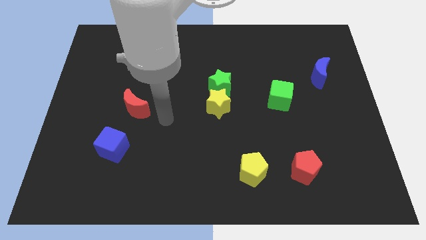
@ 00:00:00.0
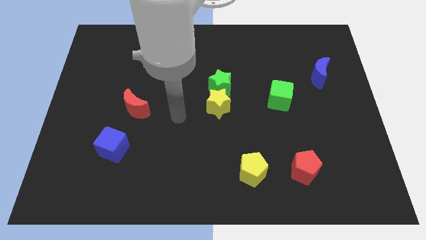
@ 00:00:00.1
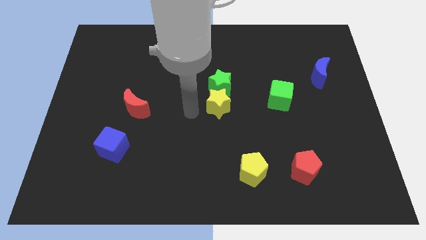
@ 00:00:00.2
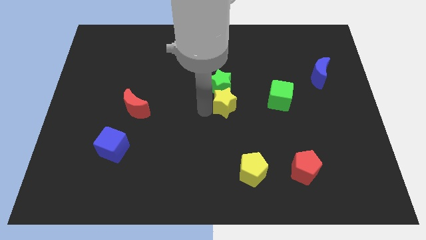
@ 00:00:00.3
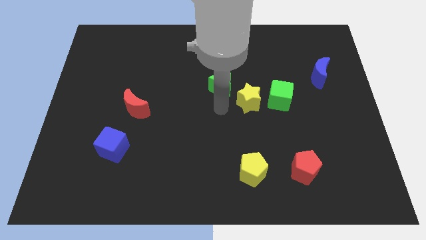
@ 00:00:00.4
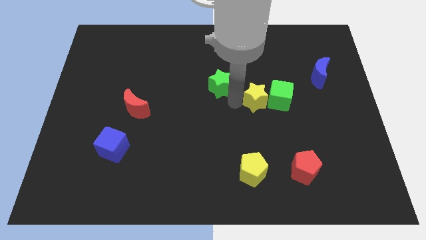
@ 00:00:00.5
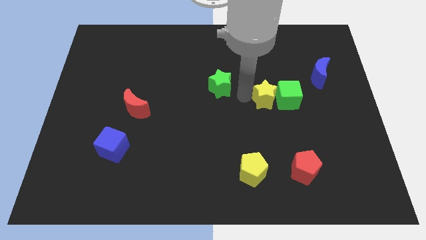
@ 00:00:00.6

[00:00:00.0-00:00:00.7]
separate the green star from the yellow star

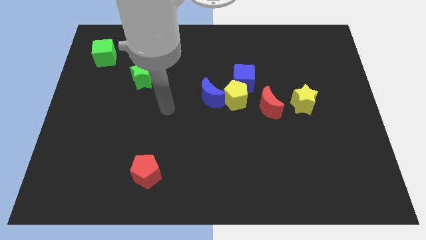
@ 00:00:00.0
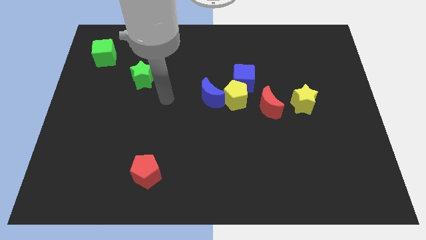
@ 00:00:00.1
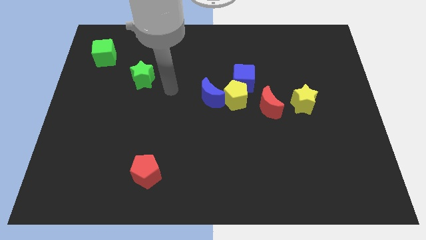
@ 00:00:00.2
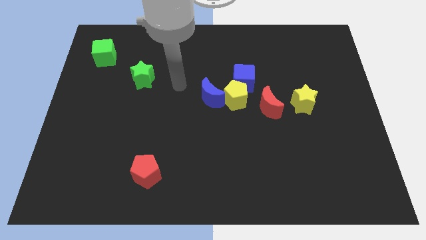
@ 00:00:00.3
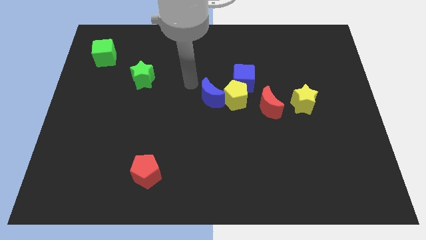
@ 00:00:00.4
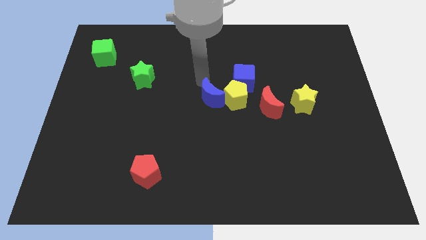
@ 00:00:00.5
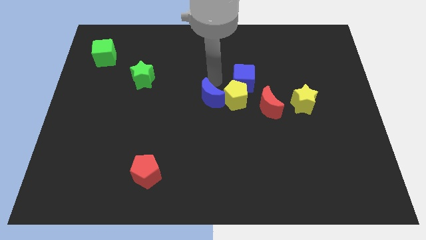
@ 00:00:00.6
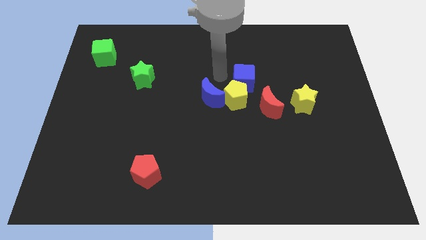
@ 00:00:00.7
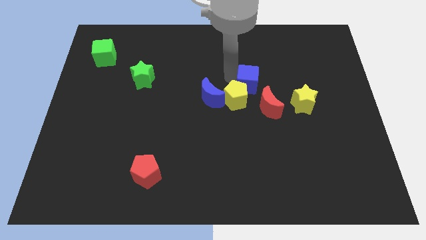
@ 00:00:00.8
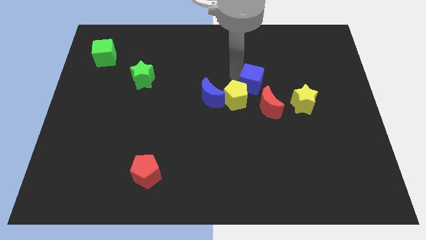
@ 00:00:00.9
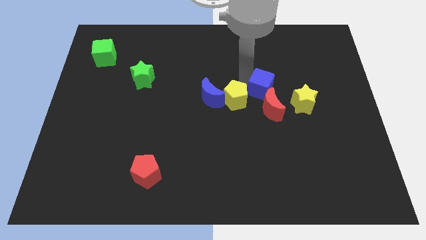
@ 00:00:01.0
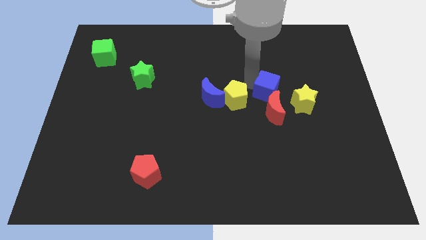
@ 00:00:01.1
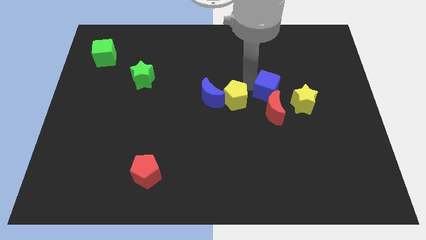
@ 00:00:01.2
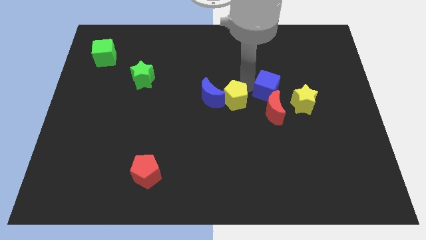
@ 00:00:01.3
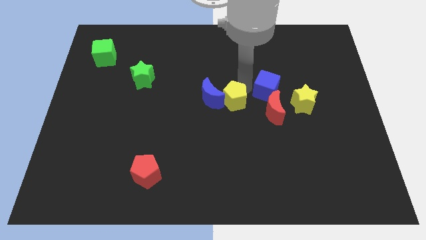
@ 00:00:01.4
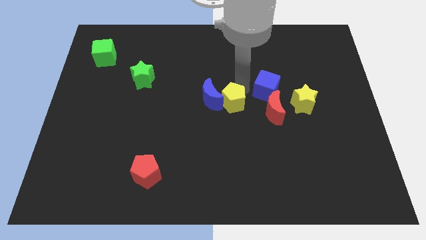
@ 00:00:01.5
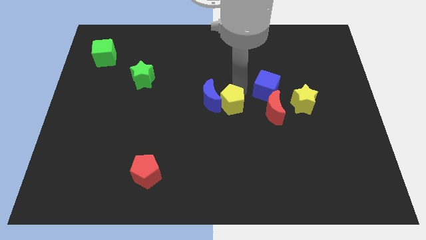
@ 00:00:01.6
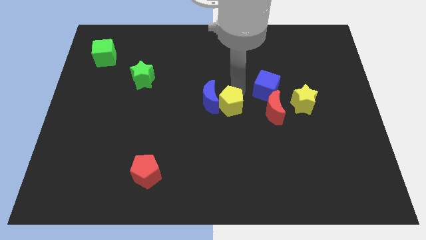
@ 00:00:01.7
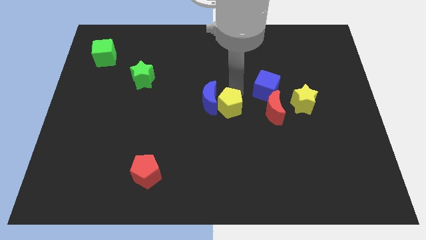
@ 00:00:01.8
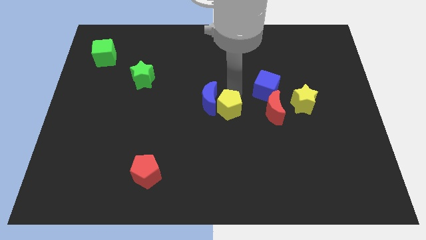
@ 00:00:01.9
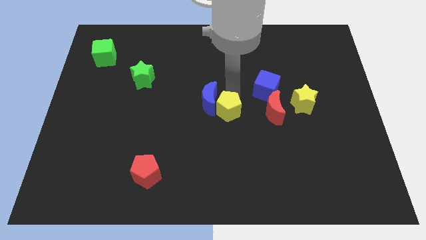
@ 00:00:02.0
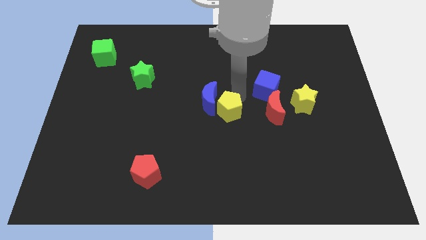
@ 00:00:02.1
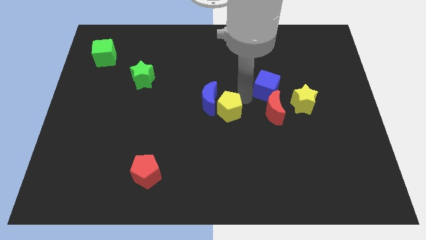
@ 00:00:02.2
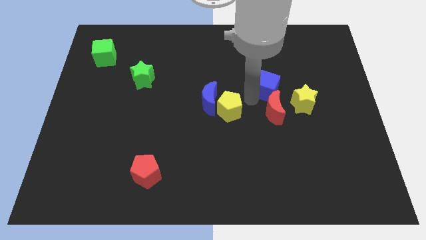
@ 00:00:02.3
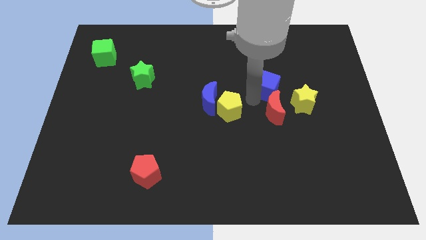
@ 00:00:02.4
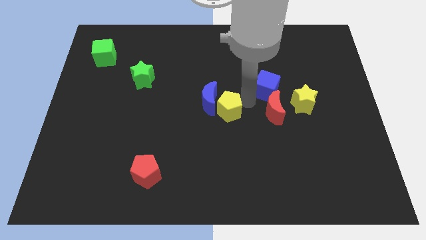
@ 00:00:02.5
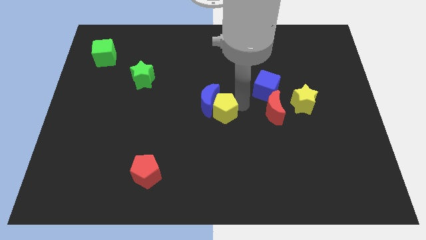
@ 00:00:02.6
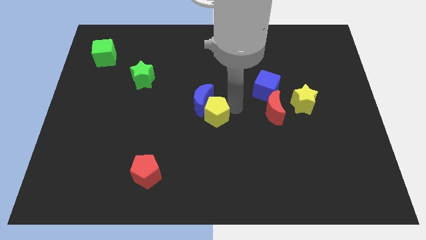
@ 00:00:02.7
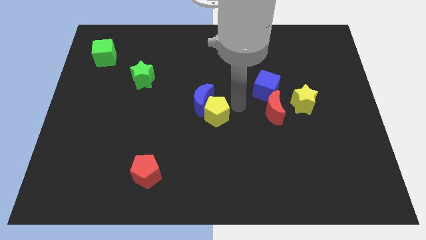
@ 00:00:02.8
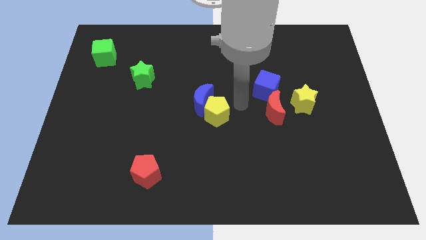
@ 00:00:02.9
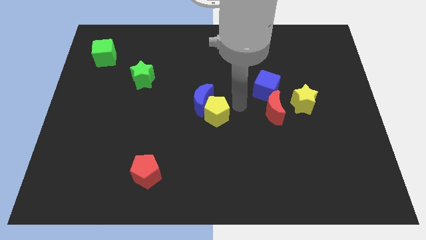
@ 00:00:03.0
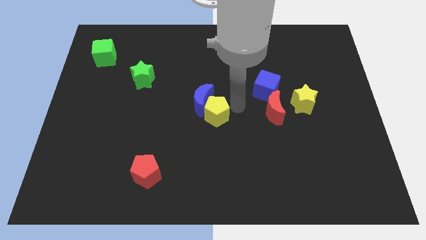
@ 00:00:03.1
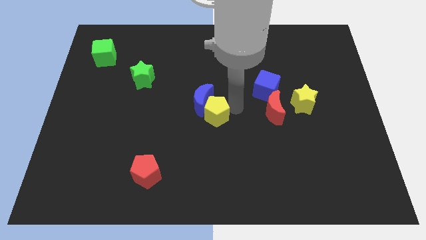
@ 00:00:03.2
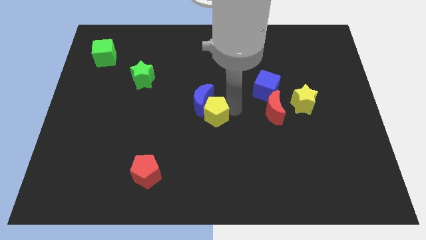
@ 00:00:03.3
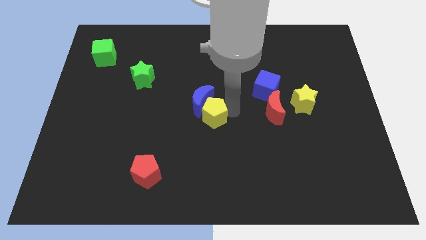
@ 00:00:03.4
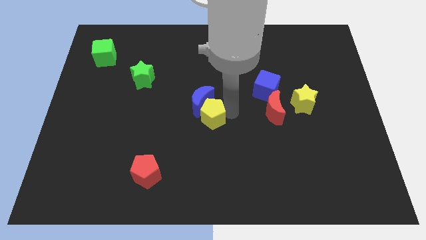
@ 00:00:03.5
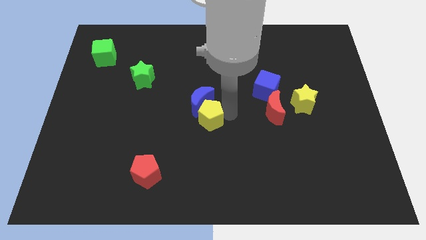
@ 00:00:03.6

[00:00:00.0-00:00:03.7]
pull the yellow pentagon apart from the group

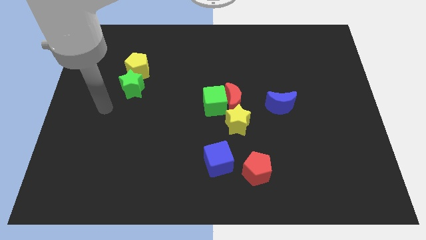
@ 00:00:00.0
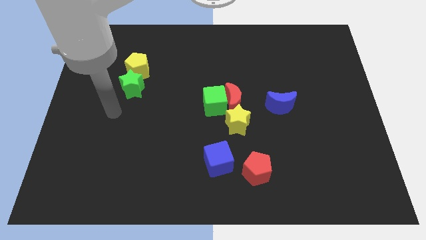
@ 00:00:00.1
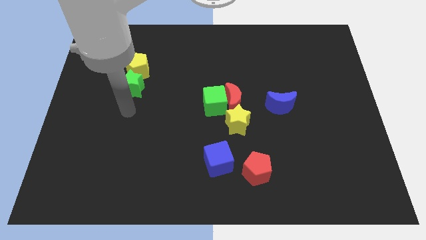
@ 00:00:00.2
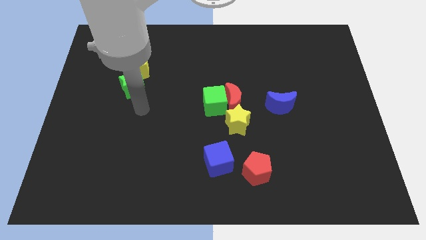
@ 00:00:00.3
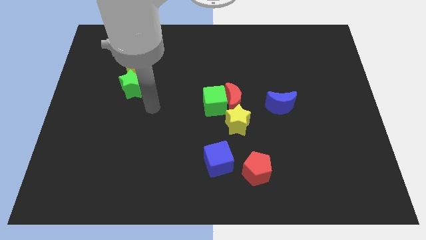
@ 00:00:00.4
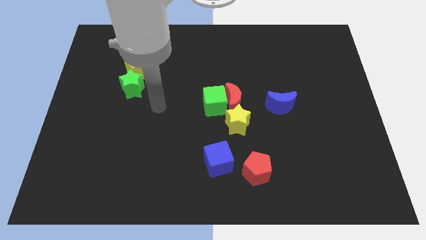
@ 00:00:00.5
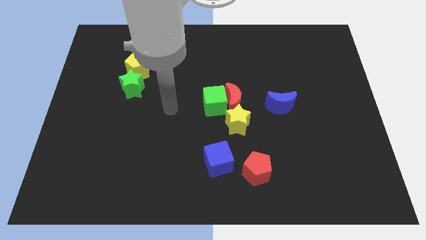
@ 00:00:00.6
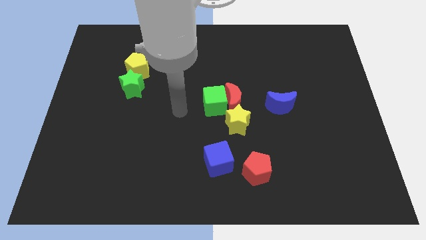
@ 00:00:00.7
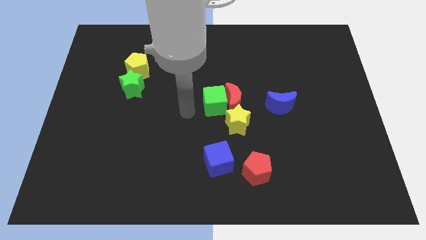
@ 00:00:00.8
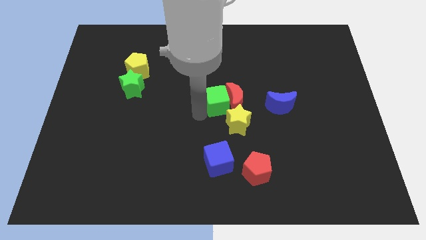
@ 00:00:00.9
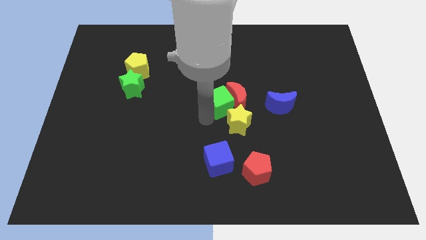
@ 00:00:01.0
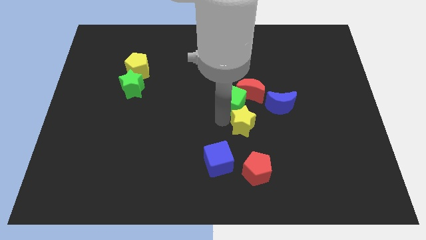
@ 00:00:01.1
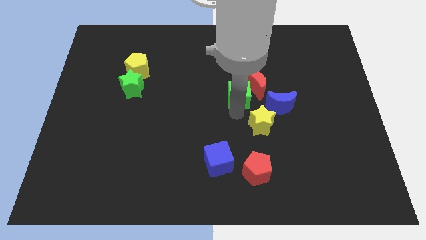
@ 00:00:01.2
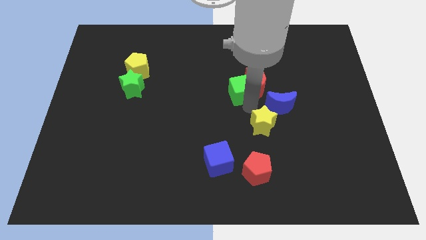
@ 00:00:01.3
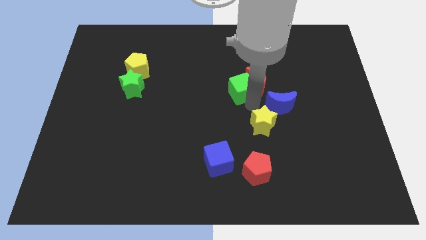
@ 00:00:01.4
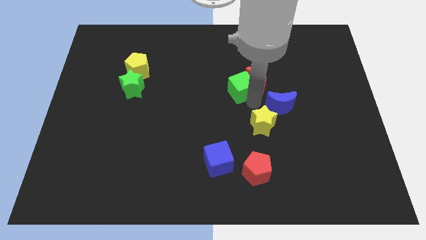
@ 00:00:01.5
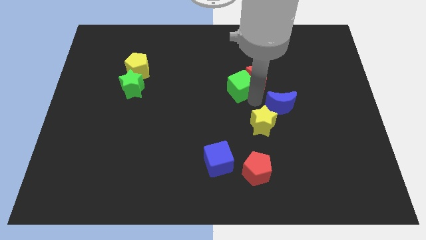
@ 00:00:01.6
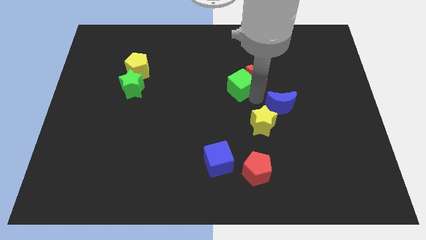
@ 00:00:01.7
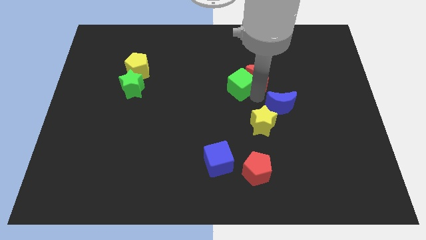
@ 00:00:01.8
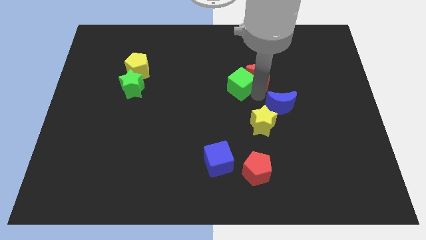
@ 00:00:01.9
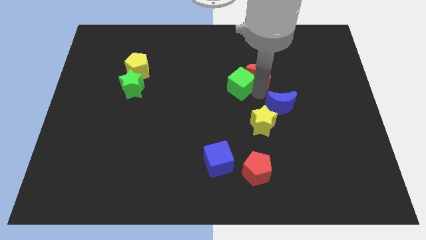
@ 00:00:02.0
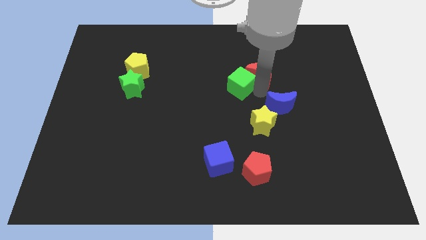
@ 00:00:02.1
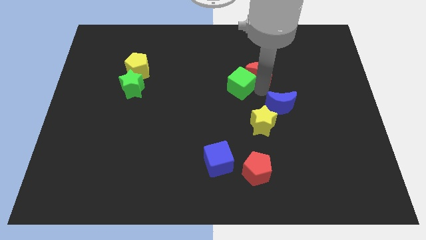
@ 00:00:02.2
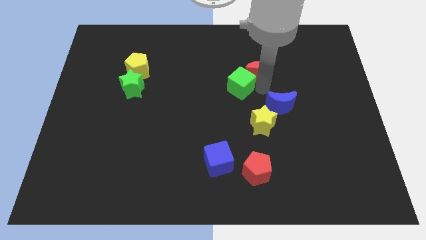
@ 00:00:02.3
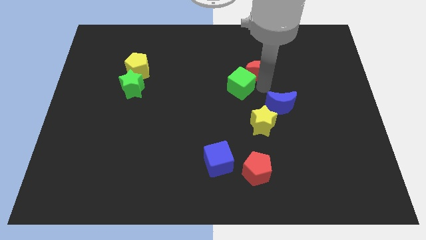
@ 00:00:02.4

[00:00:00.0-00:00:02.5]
separate the red moon from the green cube and yellow star

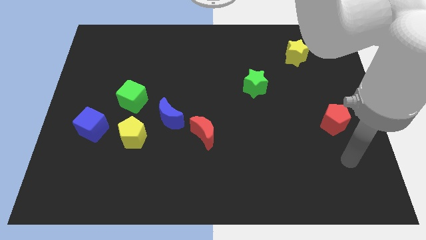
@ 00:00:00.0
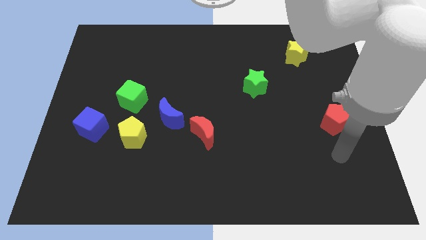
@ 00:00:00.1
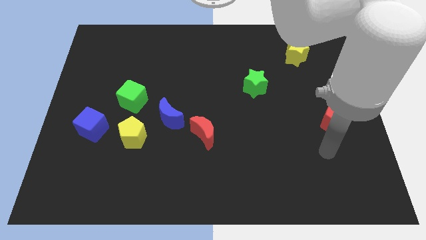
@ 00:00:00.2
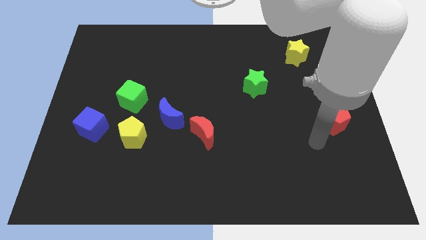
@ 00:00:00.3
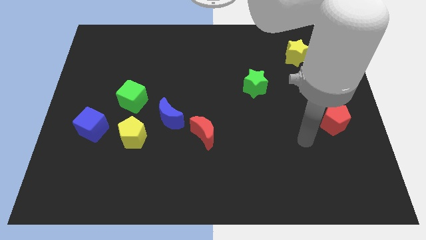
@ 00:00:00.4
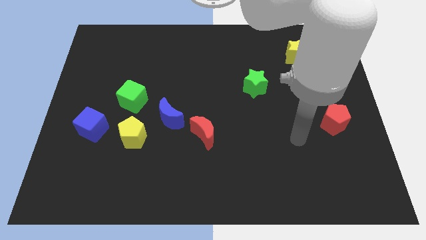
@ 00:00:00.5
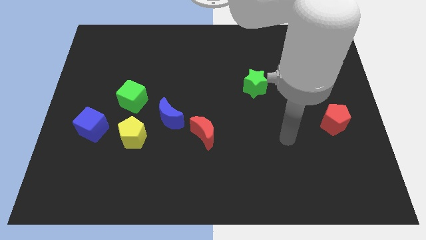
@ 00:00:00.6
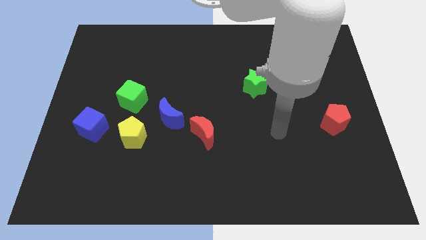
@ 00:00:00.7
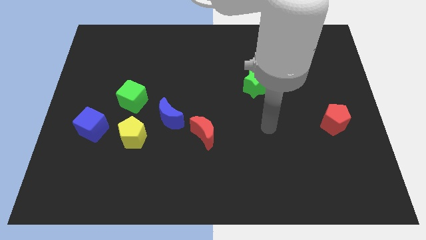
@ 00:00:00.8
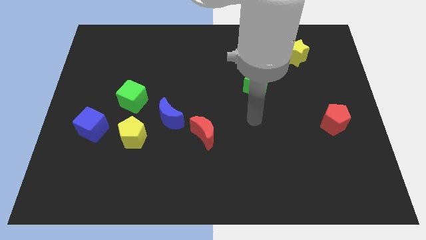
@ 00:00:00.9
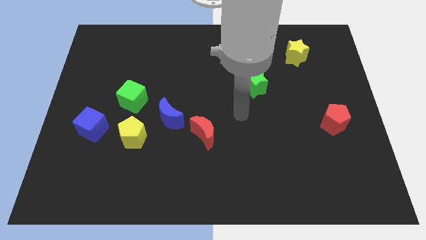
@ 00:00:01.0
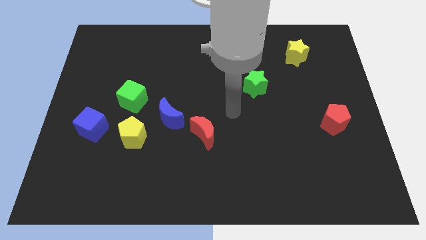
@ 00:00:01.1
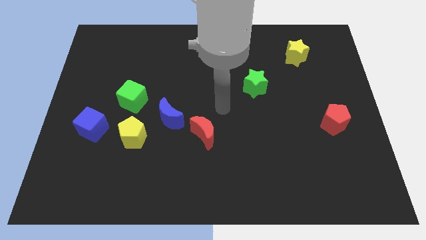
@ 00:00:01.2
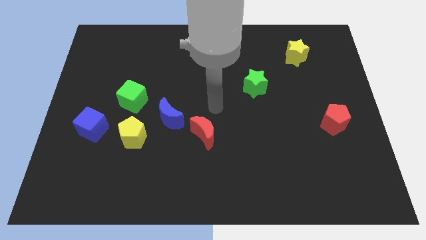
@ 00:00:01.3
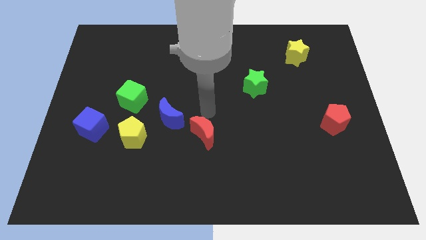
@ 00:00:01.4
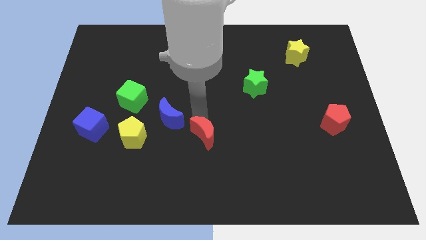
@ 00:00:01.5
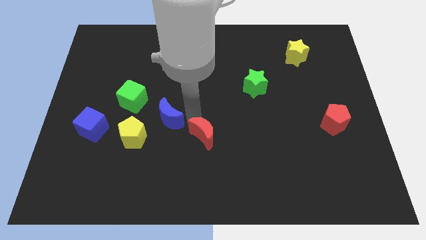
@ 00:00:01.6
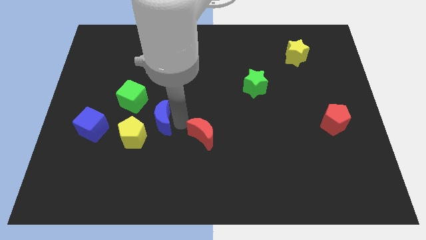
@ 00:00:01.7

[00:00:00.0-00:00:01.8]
separate the red moon from the blue moon

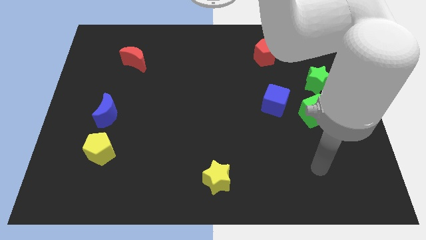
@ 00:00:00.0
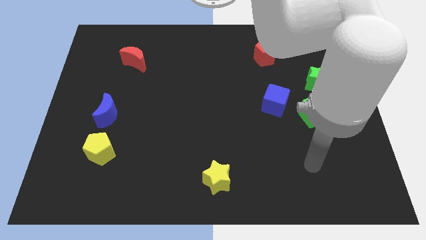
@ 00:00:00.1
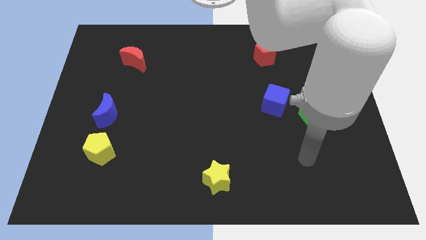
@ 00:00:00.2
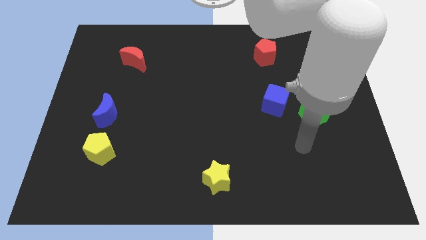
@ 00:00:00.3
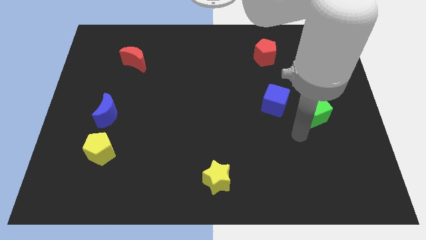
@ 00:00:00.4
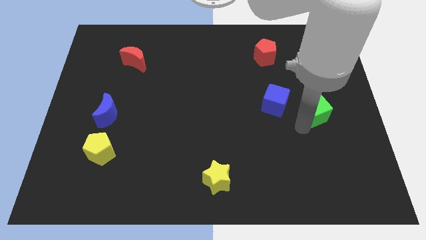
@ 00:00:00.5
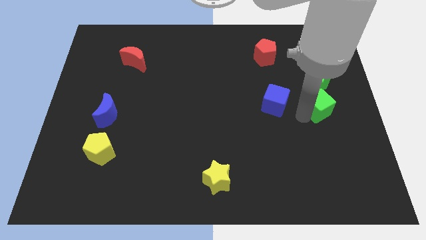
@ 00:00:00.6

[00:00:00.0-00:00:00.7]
separate the blue cube from the green cube
